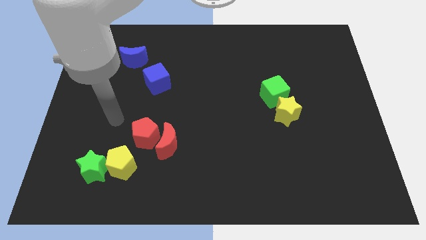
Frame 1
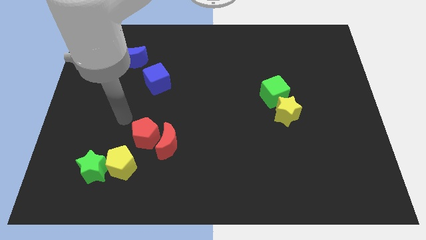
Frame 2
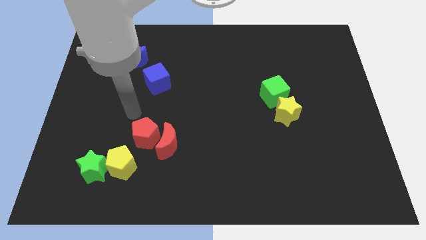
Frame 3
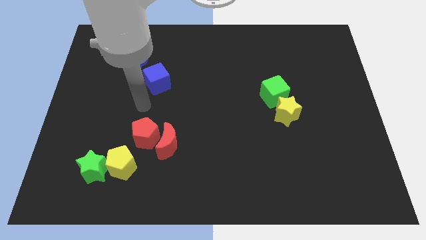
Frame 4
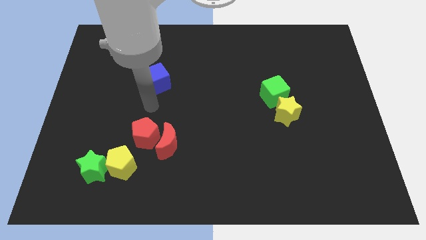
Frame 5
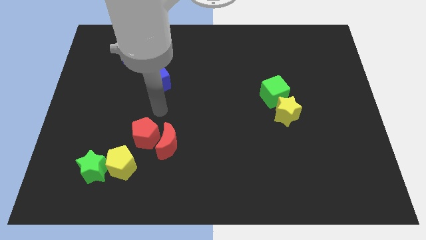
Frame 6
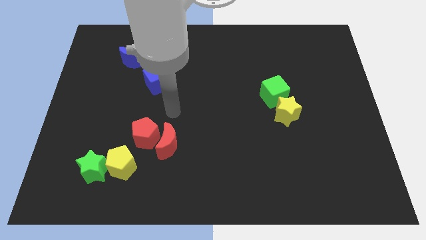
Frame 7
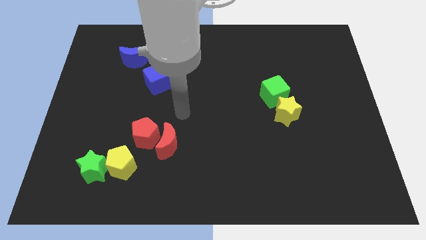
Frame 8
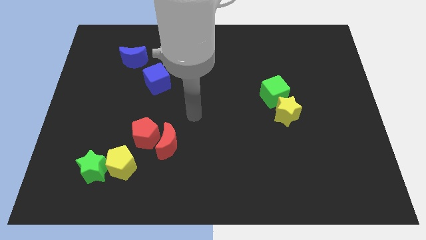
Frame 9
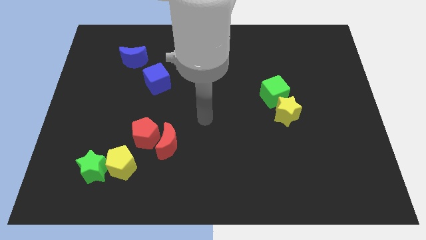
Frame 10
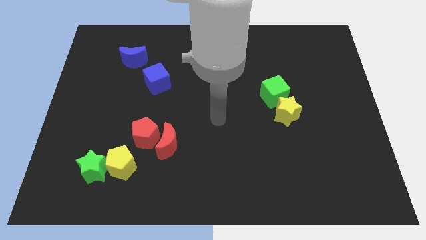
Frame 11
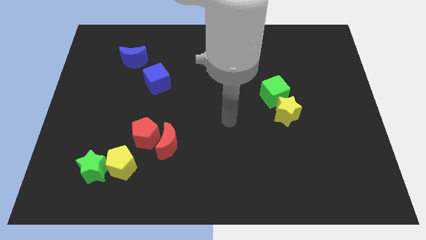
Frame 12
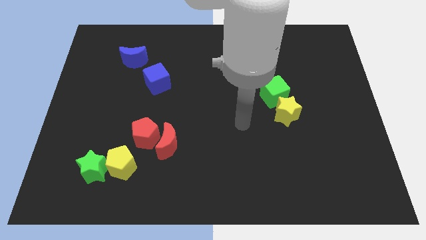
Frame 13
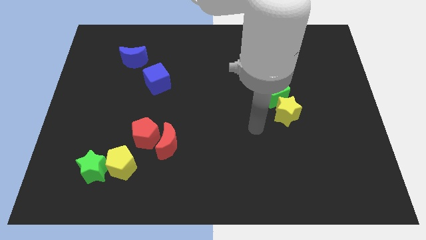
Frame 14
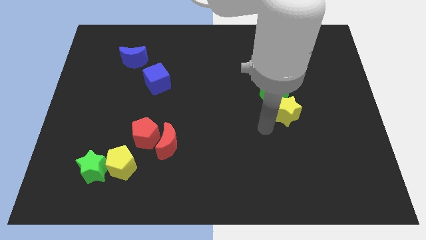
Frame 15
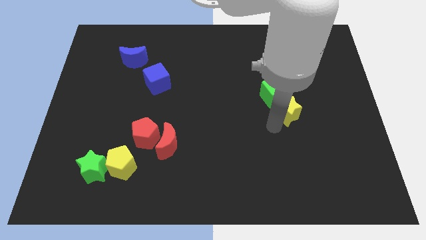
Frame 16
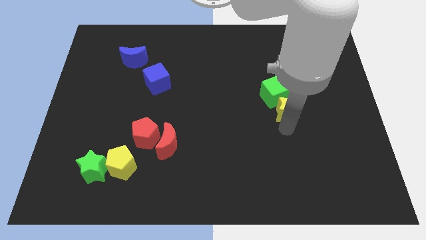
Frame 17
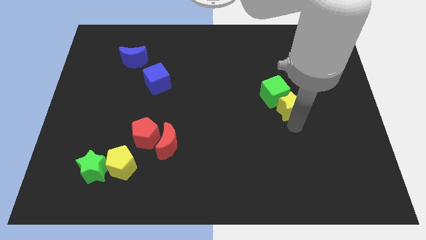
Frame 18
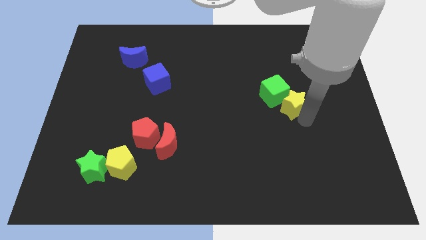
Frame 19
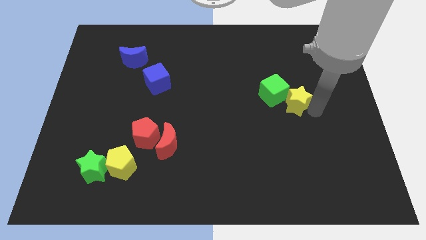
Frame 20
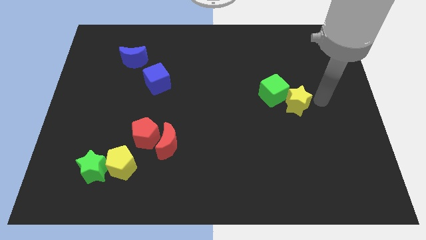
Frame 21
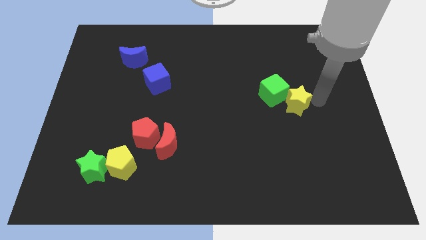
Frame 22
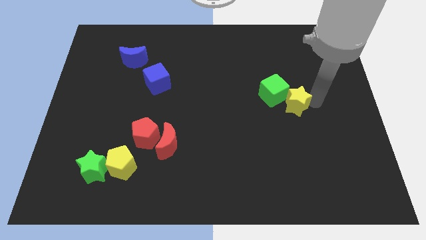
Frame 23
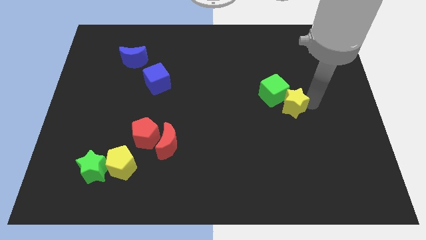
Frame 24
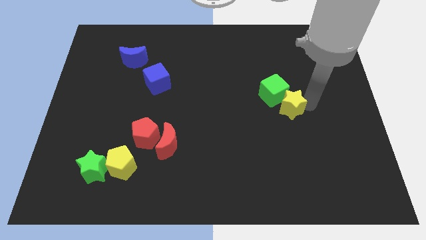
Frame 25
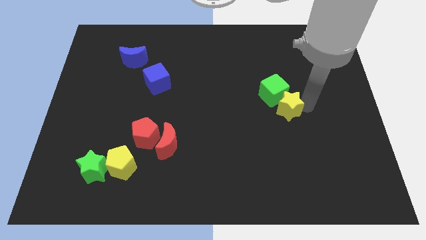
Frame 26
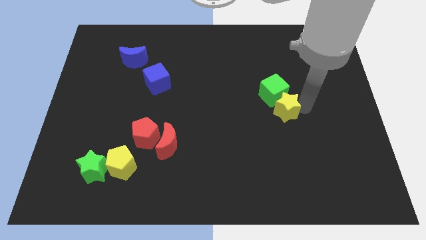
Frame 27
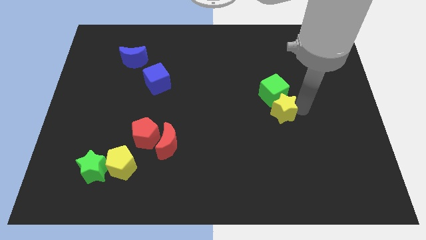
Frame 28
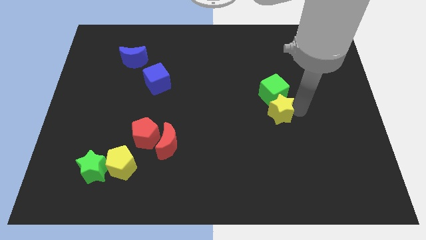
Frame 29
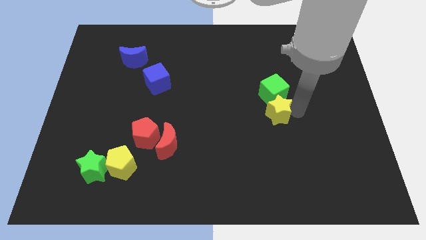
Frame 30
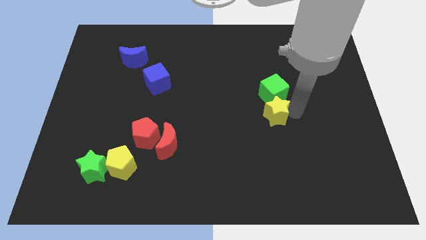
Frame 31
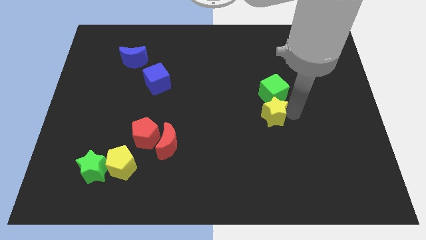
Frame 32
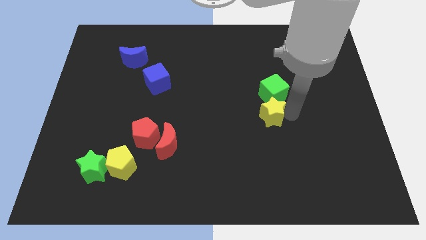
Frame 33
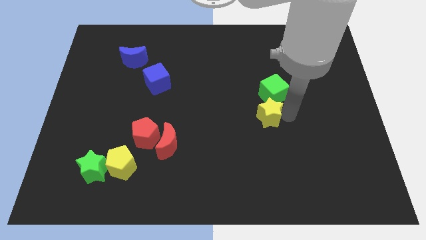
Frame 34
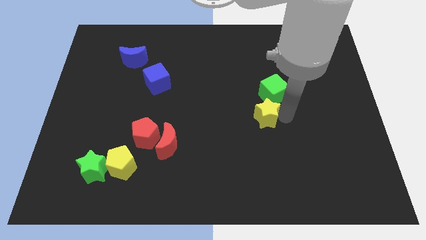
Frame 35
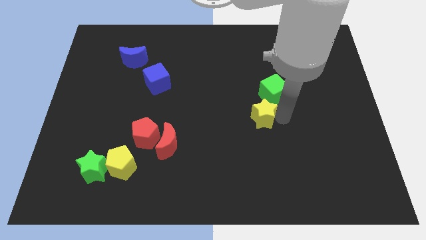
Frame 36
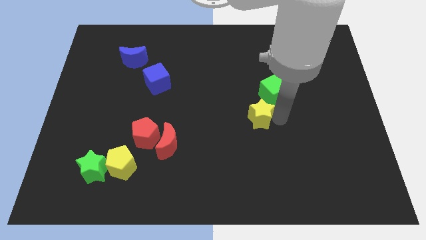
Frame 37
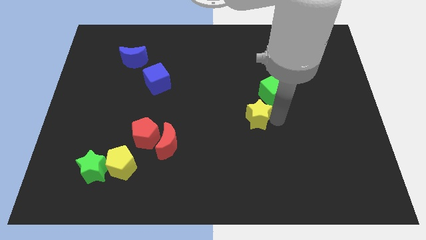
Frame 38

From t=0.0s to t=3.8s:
slightly push the yellow star left

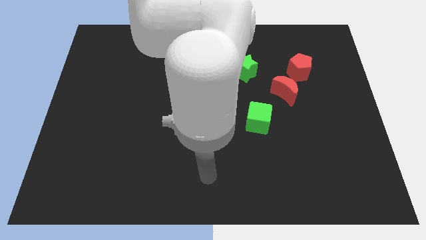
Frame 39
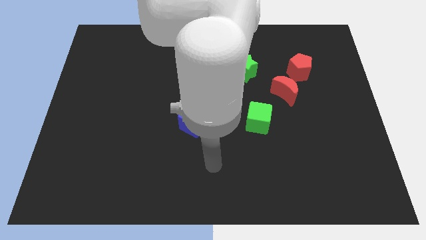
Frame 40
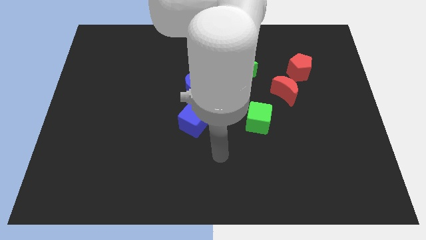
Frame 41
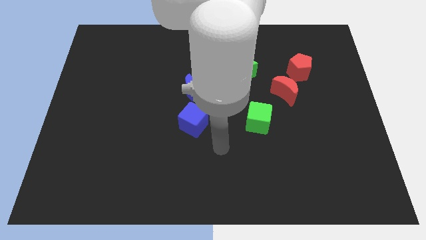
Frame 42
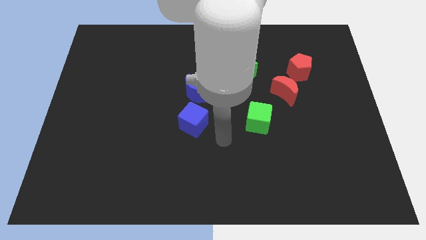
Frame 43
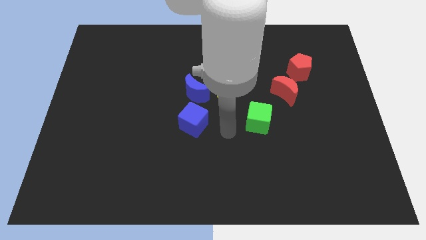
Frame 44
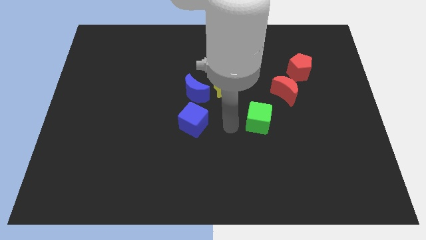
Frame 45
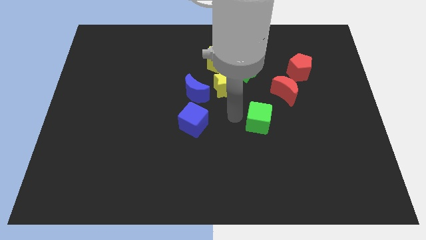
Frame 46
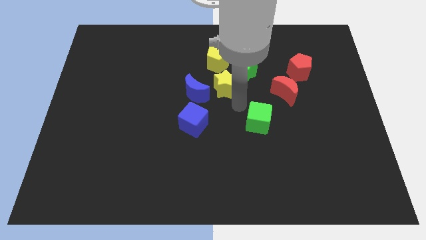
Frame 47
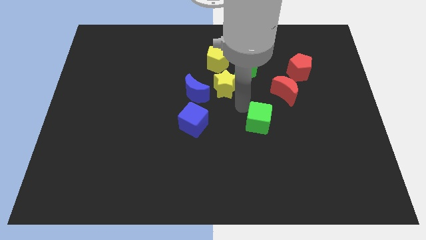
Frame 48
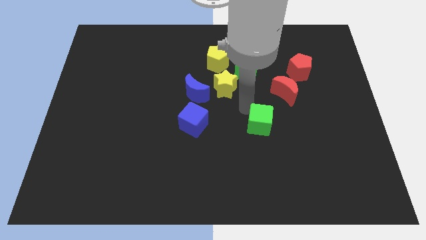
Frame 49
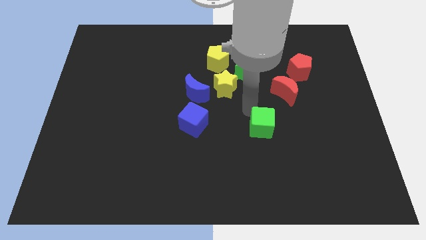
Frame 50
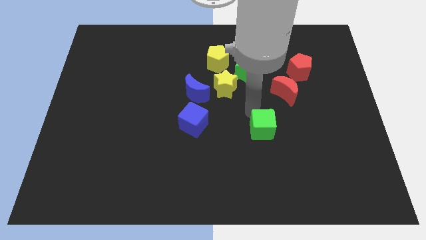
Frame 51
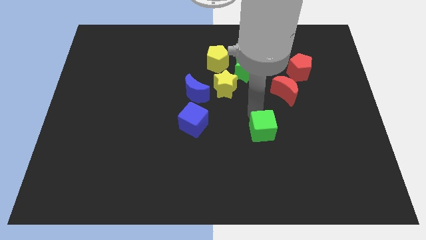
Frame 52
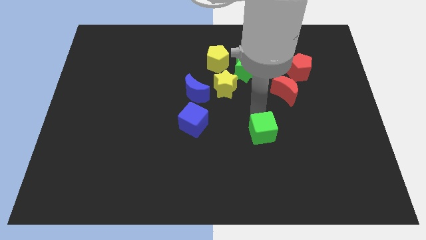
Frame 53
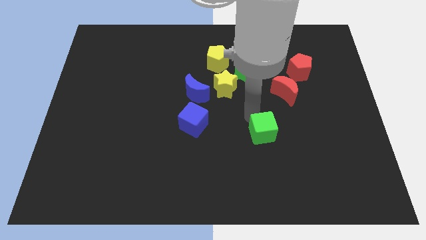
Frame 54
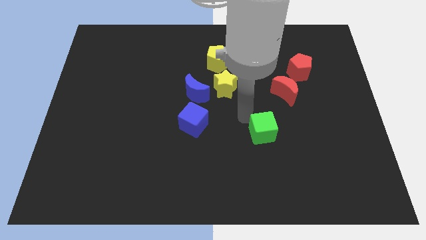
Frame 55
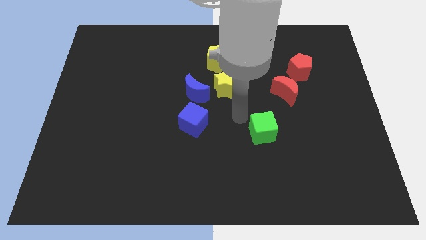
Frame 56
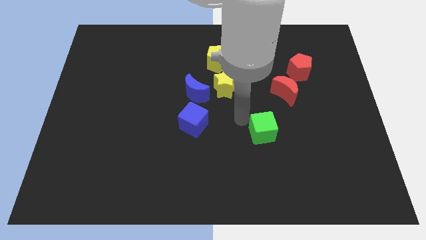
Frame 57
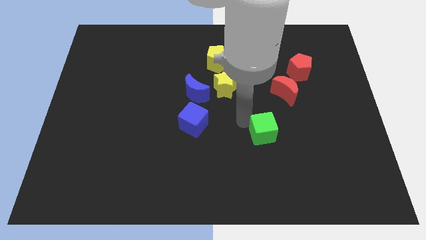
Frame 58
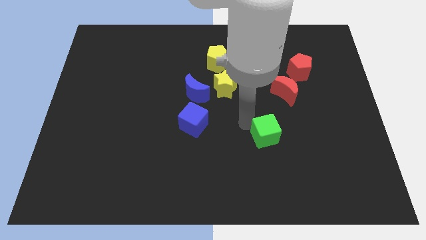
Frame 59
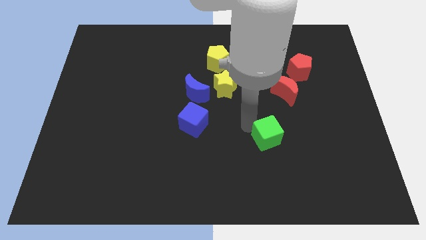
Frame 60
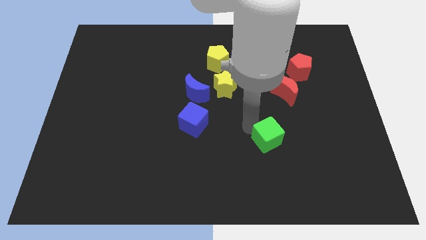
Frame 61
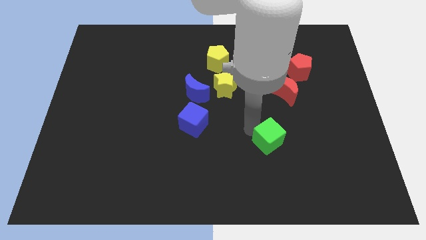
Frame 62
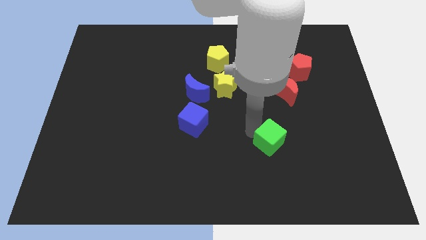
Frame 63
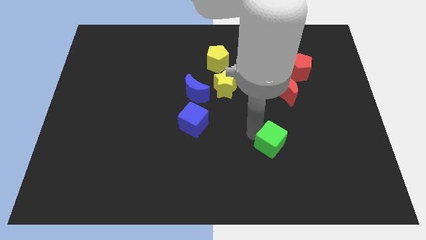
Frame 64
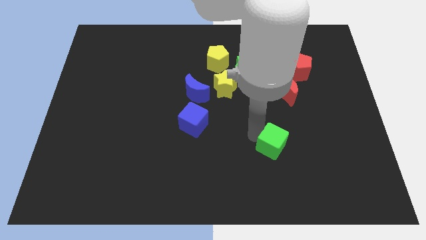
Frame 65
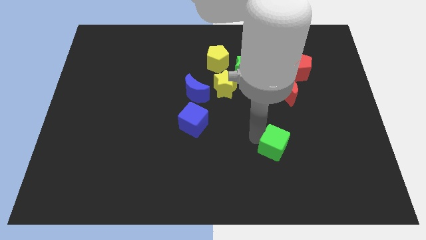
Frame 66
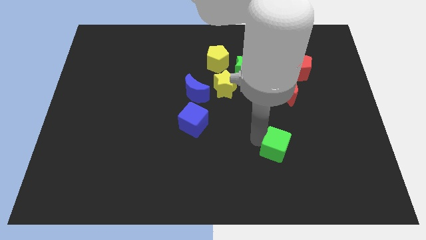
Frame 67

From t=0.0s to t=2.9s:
push the green cube a bit down and to the right

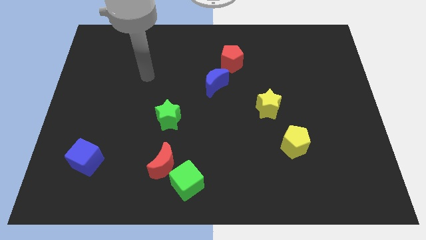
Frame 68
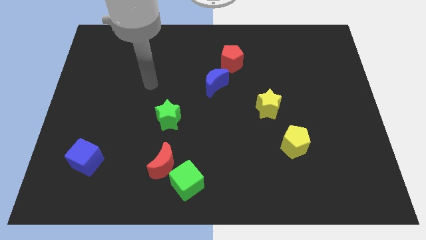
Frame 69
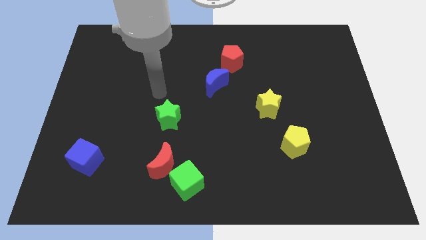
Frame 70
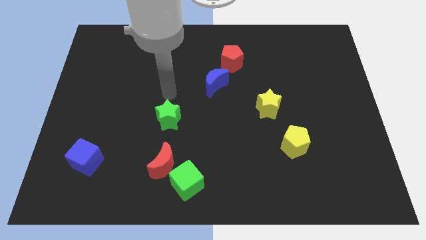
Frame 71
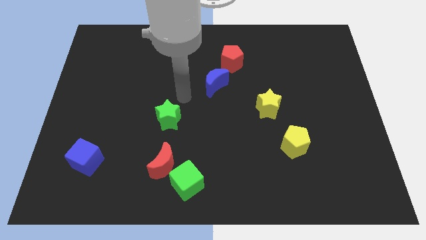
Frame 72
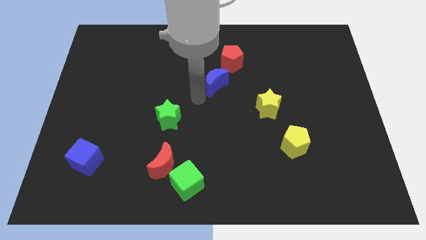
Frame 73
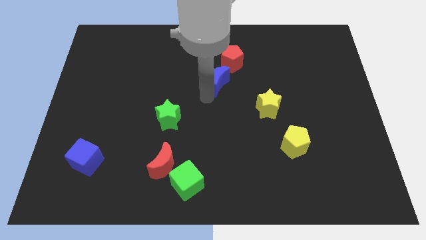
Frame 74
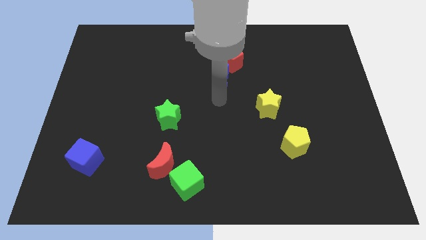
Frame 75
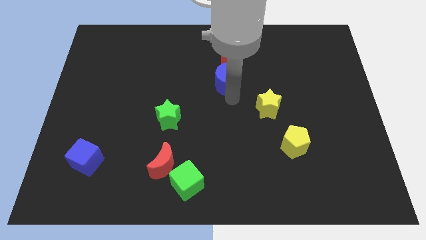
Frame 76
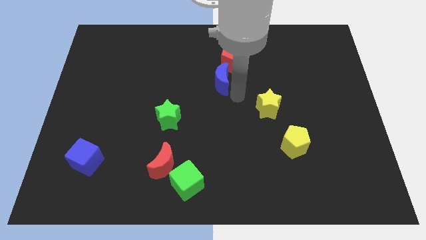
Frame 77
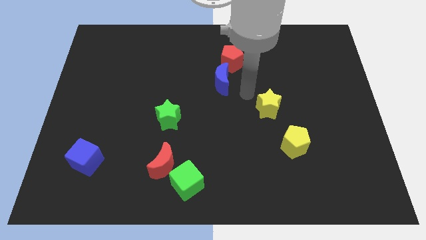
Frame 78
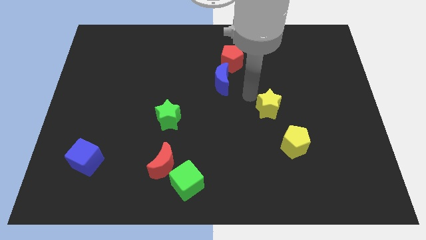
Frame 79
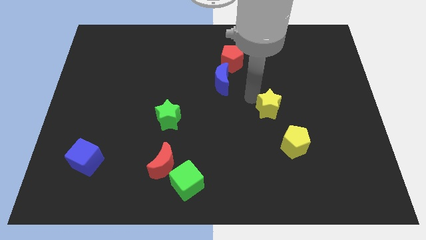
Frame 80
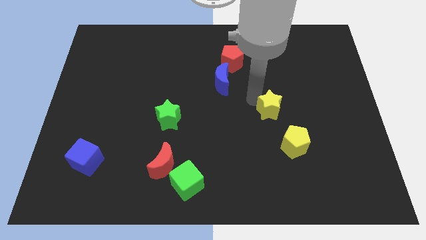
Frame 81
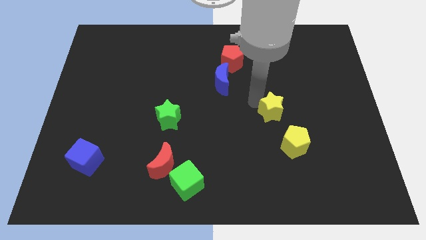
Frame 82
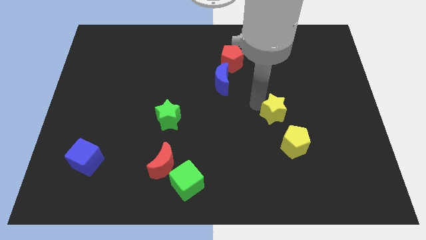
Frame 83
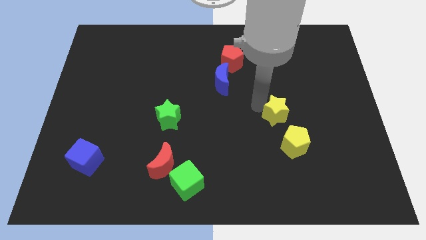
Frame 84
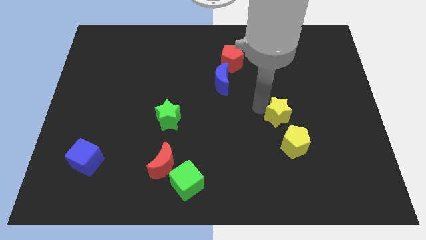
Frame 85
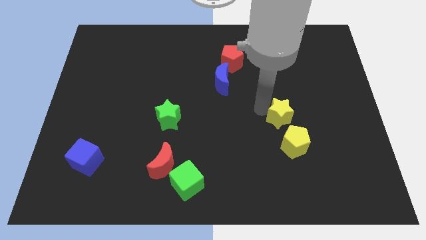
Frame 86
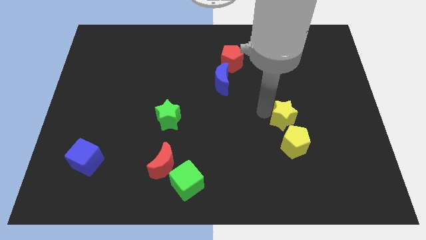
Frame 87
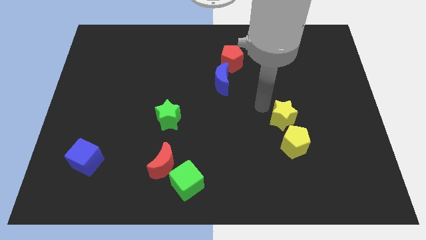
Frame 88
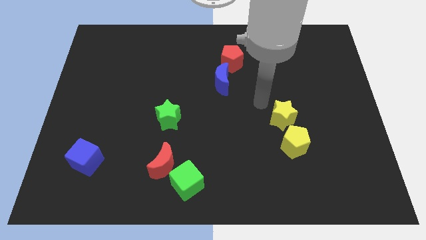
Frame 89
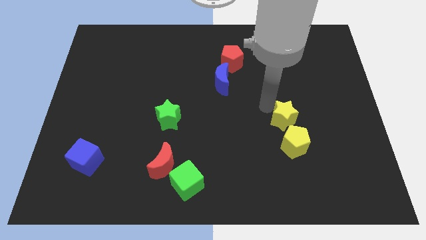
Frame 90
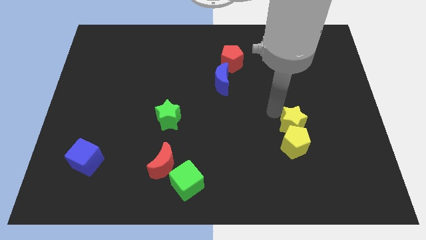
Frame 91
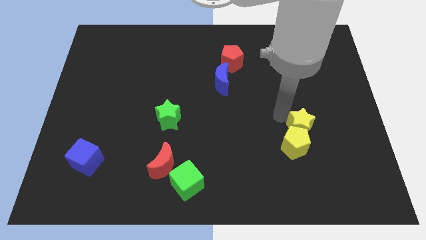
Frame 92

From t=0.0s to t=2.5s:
slightly slide the yellow star downwards and to the right diagonally
